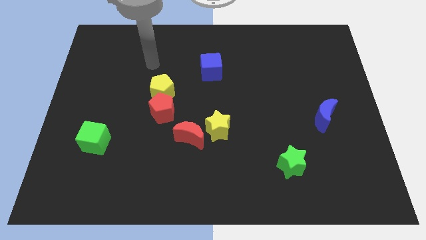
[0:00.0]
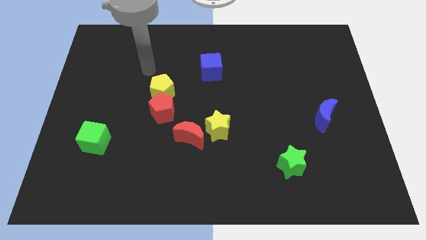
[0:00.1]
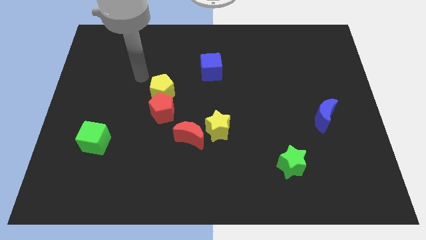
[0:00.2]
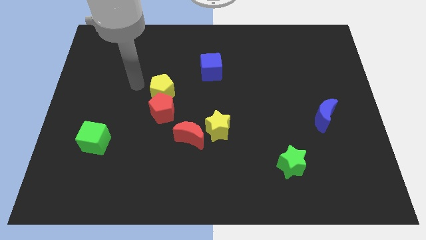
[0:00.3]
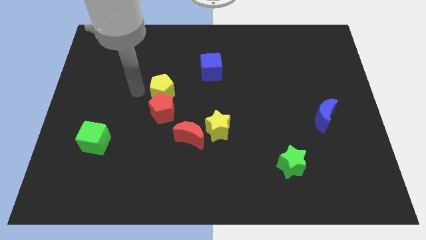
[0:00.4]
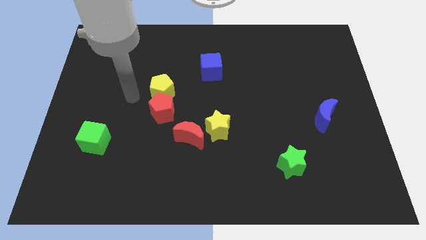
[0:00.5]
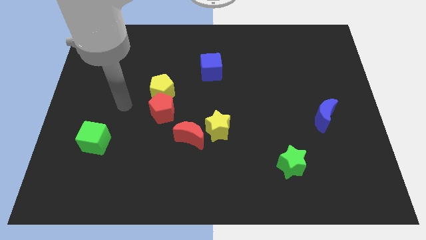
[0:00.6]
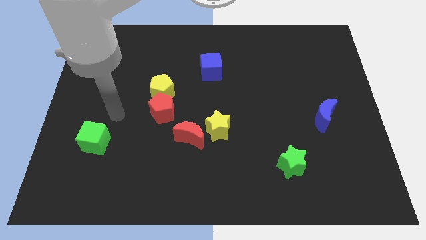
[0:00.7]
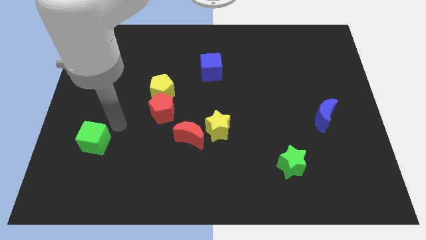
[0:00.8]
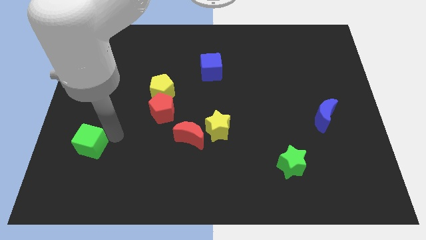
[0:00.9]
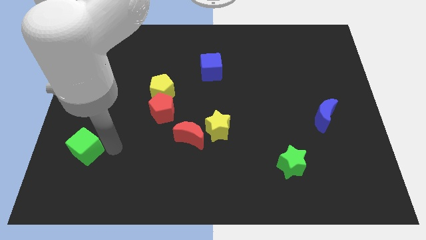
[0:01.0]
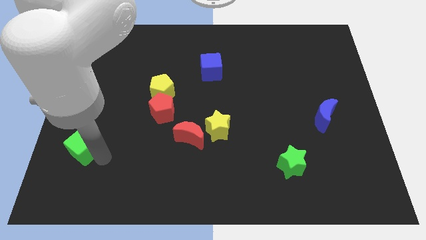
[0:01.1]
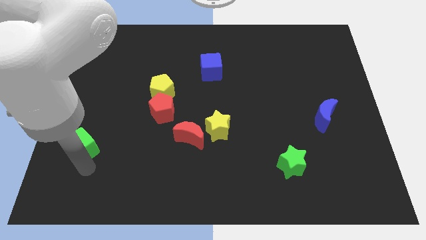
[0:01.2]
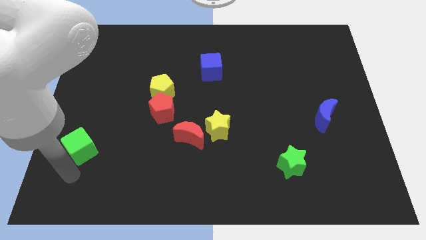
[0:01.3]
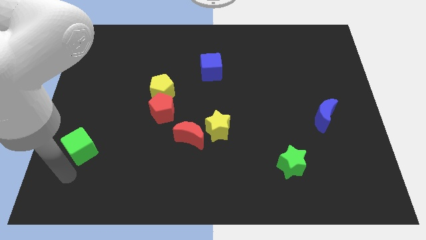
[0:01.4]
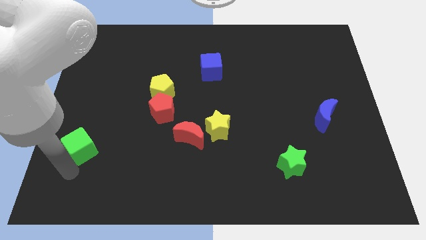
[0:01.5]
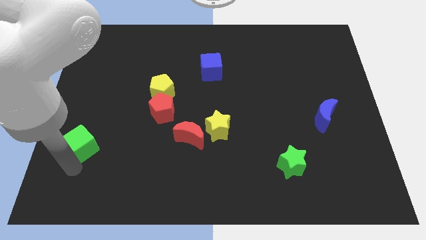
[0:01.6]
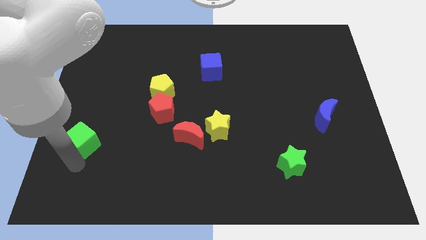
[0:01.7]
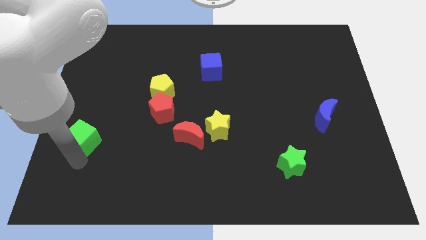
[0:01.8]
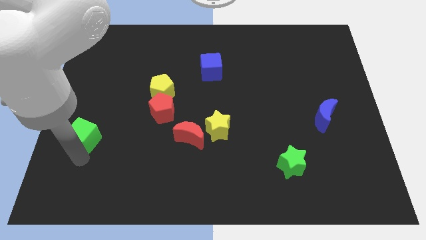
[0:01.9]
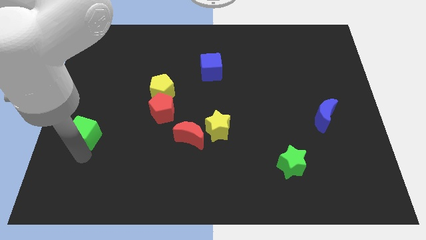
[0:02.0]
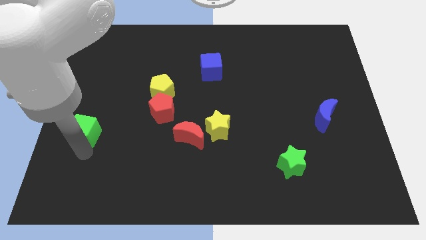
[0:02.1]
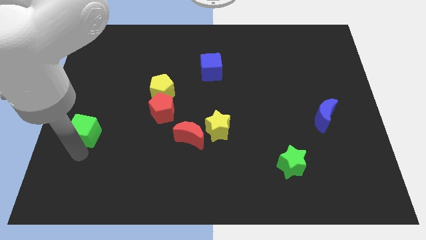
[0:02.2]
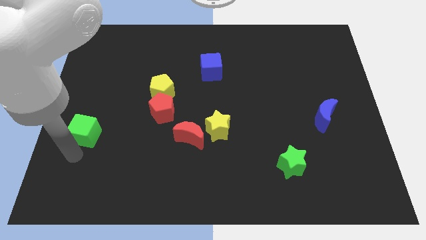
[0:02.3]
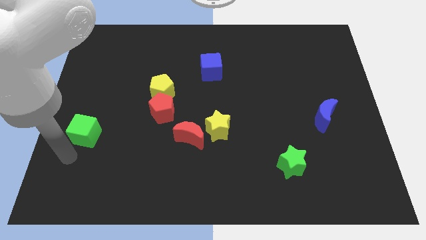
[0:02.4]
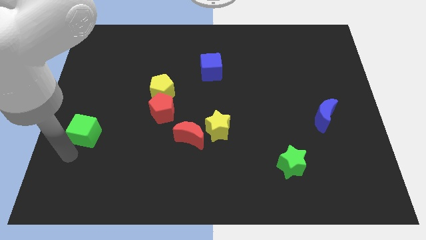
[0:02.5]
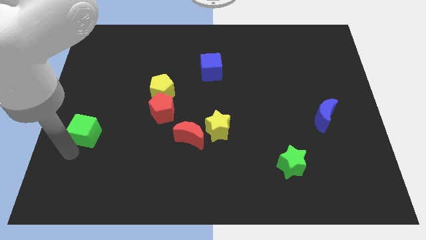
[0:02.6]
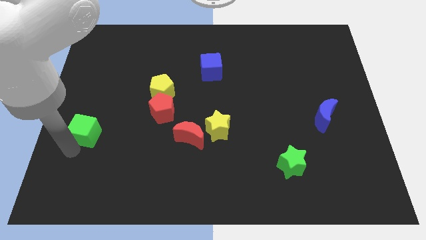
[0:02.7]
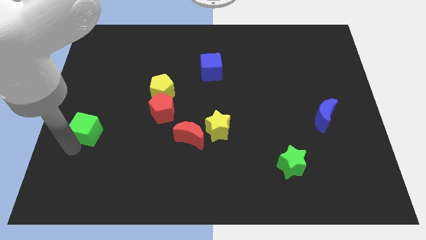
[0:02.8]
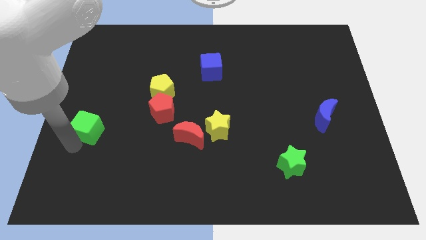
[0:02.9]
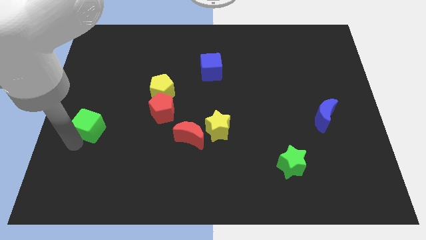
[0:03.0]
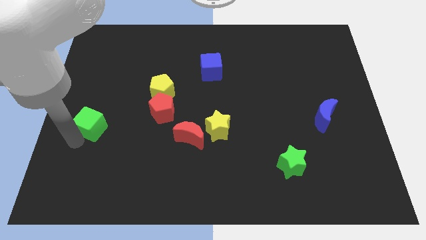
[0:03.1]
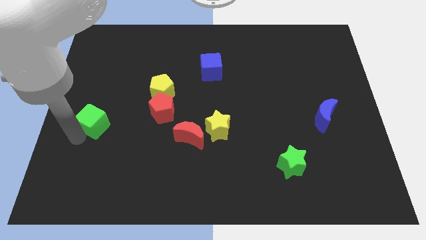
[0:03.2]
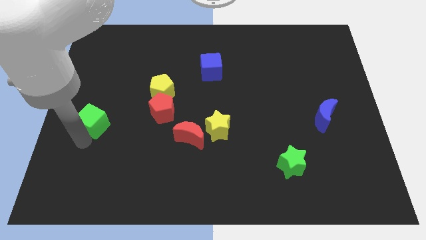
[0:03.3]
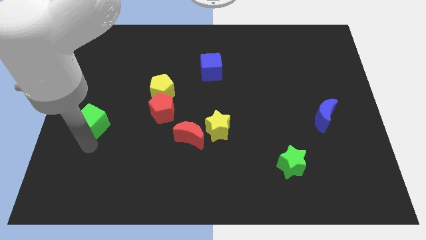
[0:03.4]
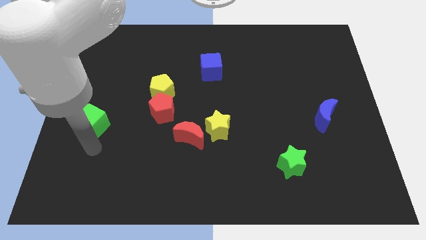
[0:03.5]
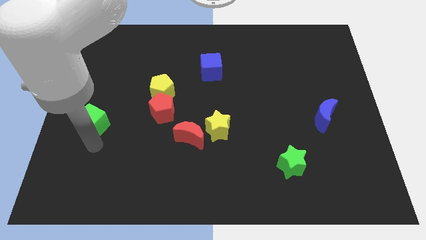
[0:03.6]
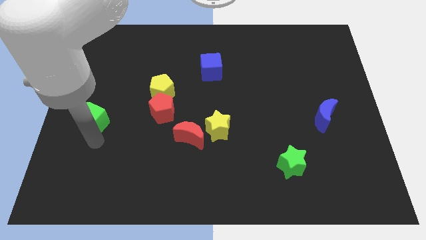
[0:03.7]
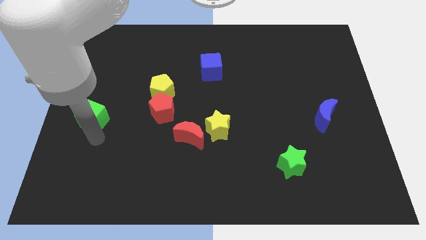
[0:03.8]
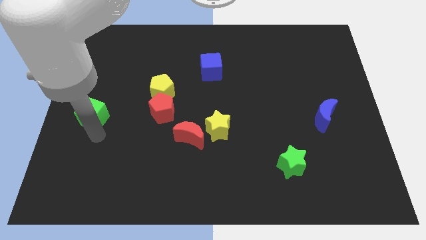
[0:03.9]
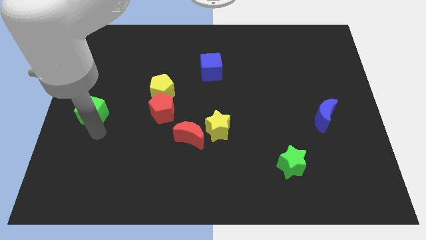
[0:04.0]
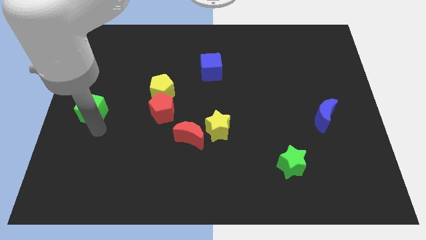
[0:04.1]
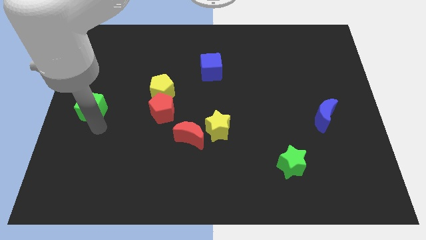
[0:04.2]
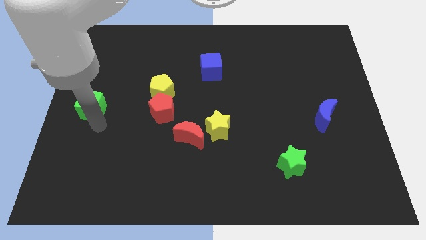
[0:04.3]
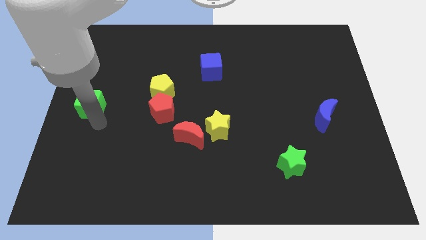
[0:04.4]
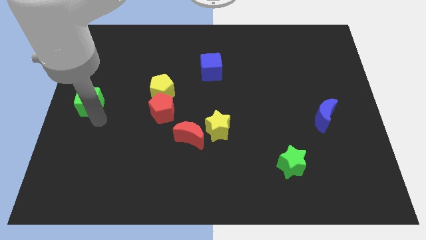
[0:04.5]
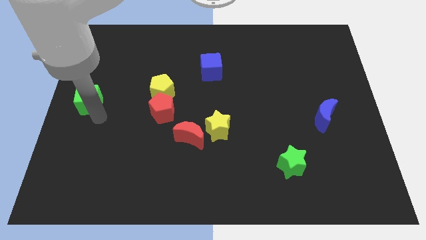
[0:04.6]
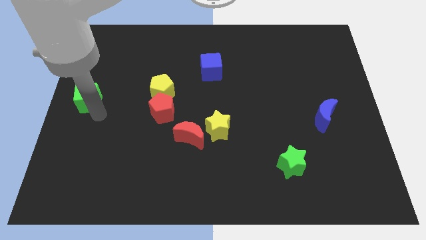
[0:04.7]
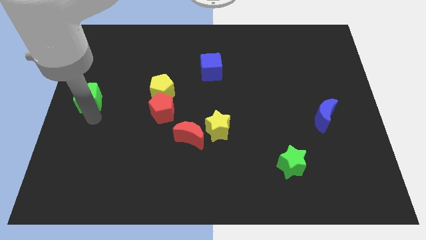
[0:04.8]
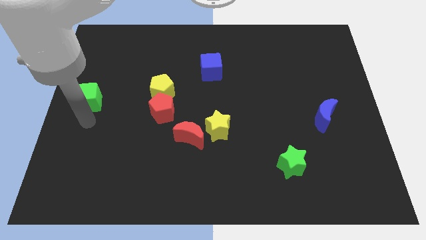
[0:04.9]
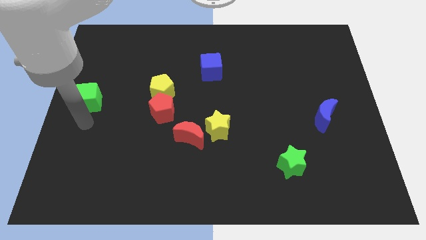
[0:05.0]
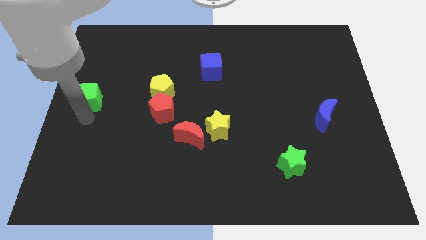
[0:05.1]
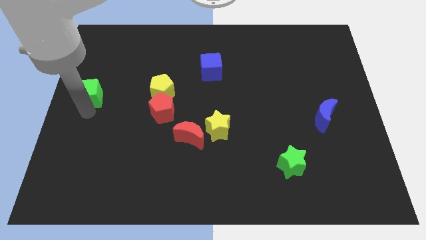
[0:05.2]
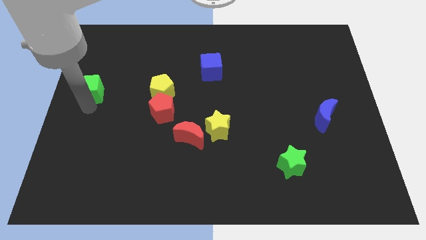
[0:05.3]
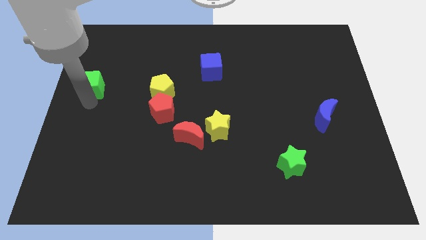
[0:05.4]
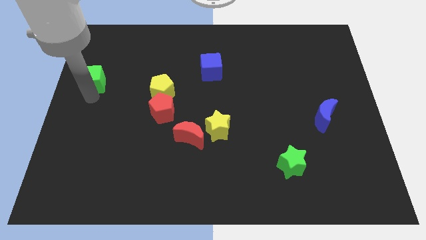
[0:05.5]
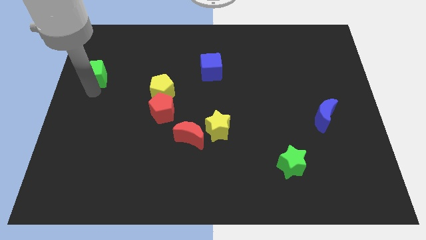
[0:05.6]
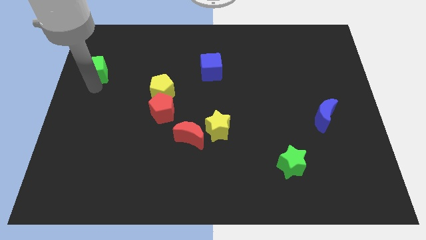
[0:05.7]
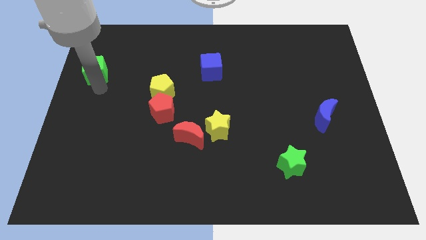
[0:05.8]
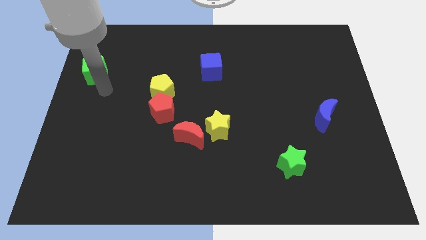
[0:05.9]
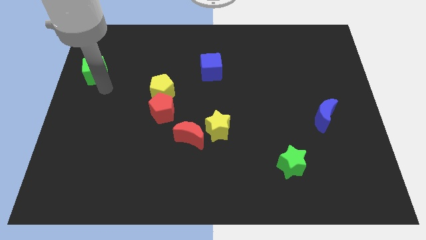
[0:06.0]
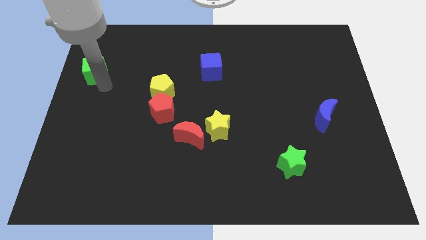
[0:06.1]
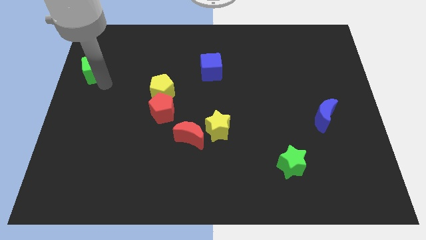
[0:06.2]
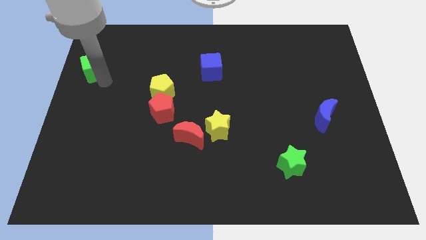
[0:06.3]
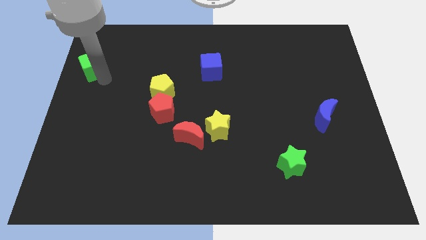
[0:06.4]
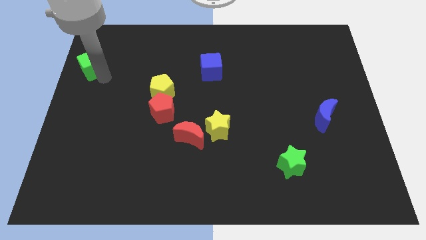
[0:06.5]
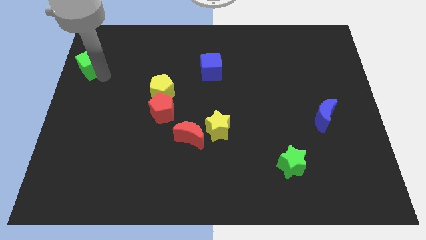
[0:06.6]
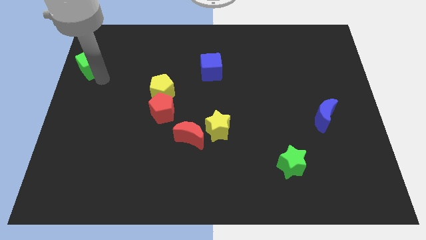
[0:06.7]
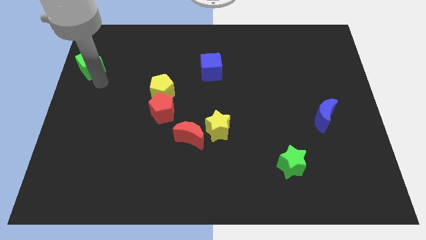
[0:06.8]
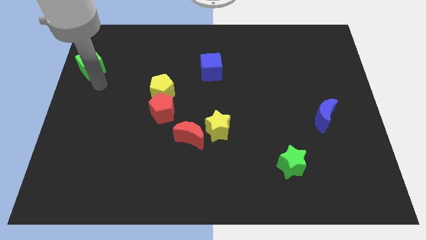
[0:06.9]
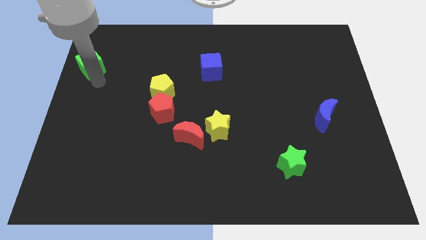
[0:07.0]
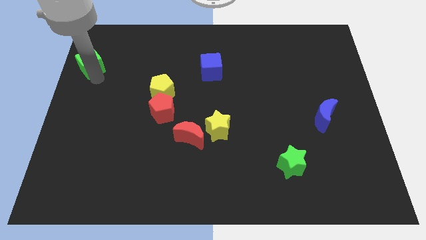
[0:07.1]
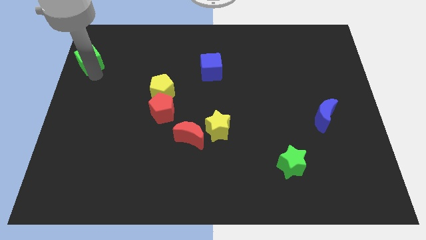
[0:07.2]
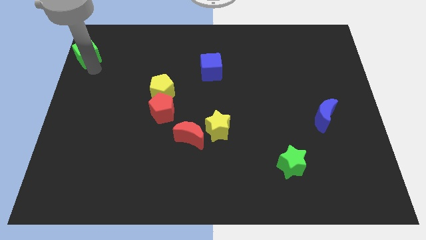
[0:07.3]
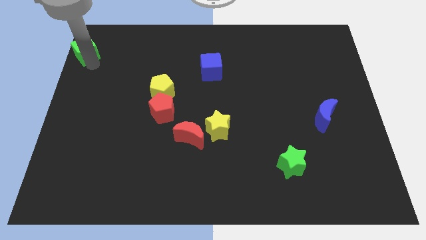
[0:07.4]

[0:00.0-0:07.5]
put the green cube to the top left corner

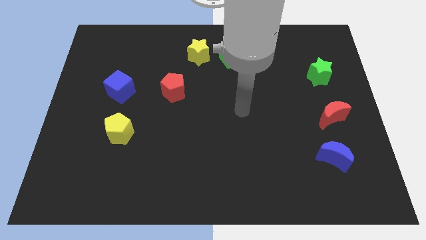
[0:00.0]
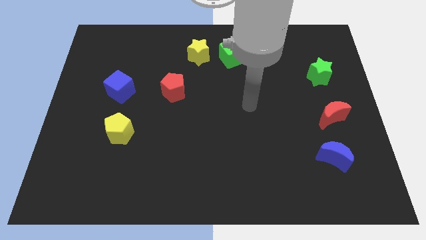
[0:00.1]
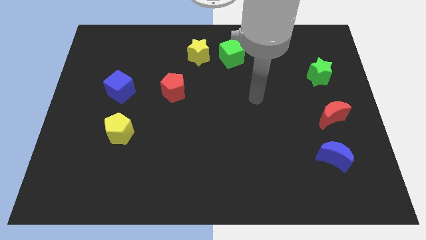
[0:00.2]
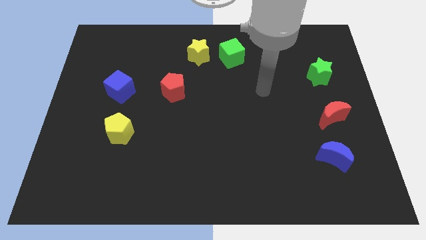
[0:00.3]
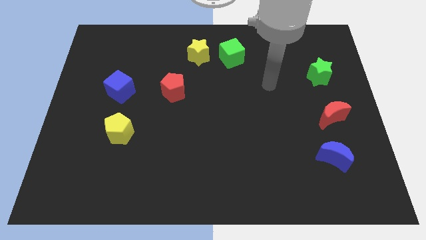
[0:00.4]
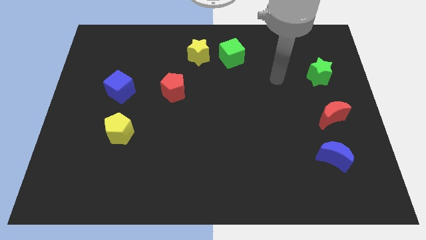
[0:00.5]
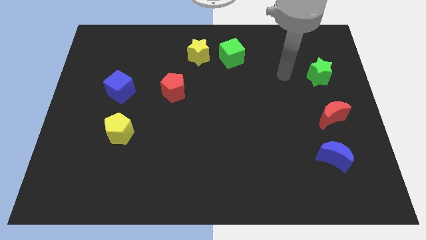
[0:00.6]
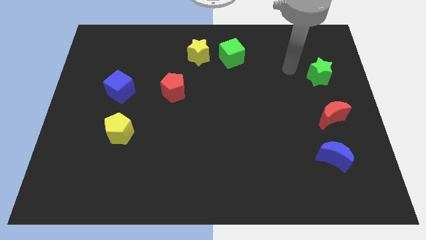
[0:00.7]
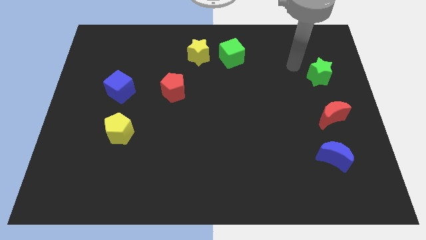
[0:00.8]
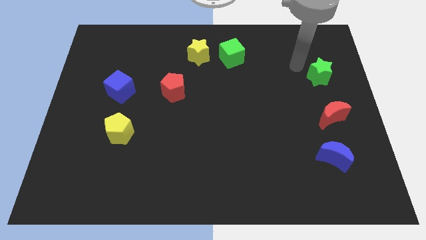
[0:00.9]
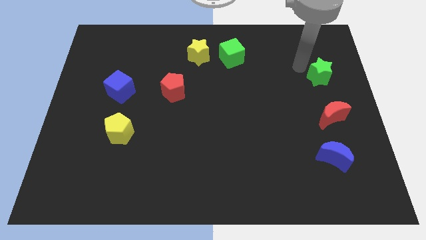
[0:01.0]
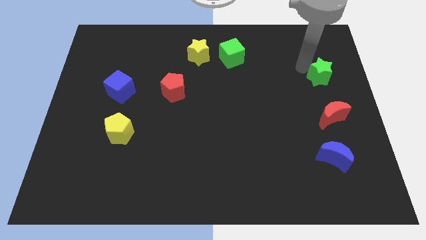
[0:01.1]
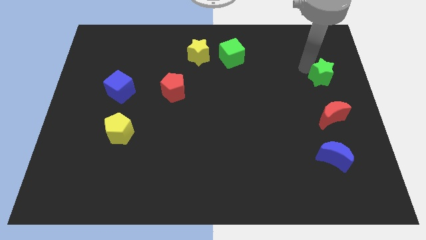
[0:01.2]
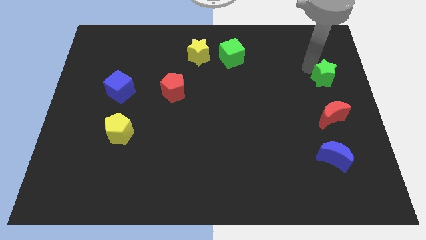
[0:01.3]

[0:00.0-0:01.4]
push the green star to the right side of the board
